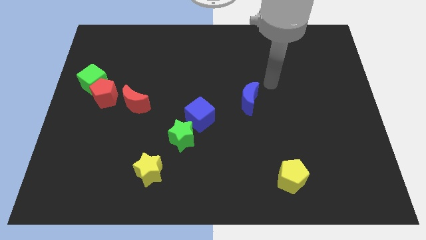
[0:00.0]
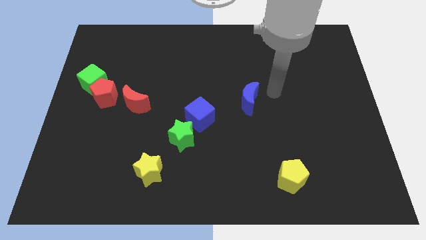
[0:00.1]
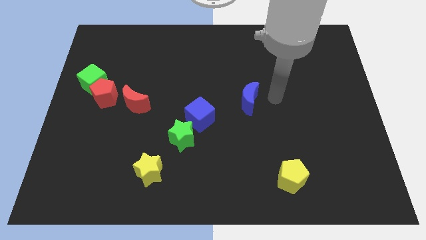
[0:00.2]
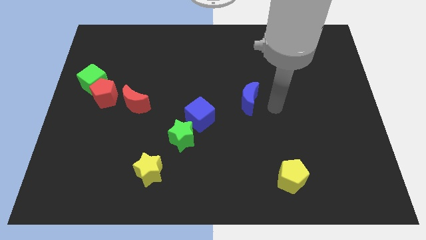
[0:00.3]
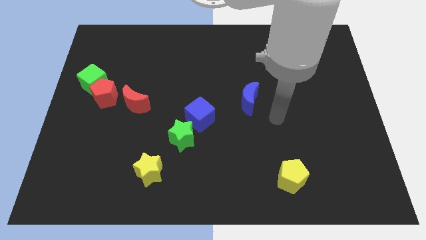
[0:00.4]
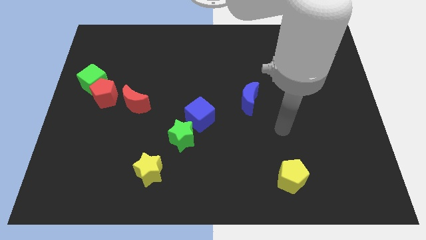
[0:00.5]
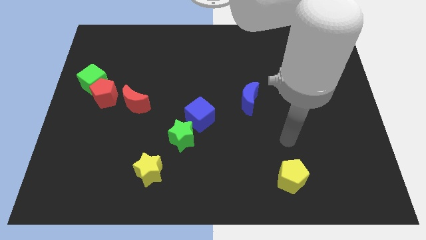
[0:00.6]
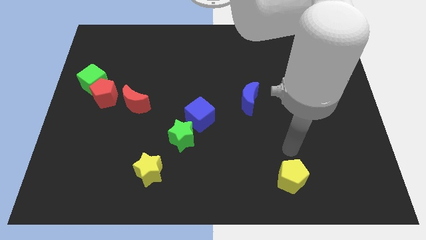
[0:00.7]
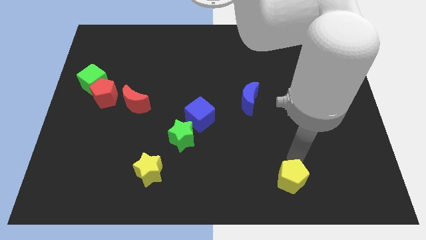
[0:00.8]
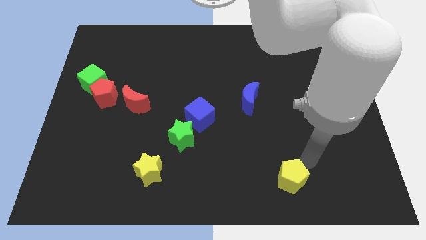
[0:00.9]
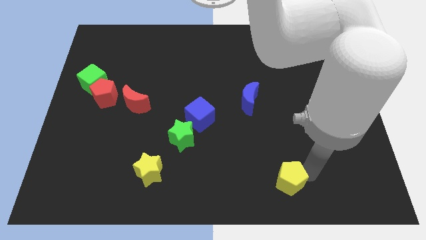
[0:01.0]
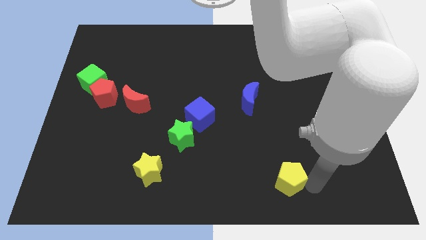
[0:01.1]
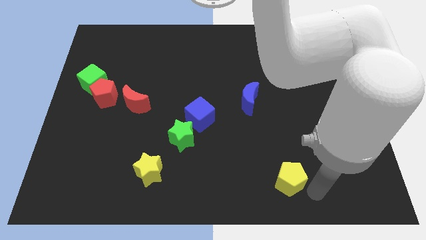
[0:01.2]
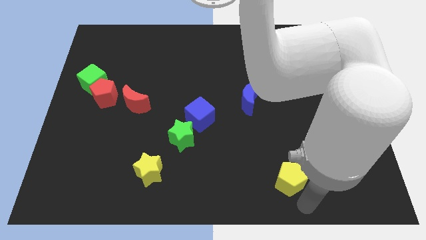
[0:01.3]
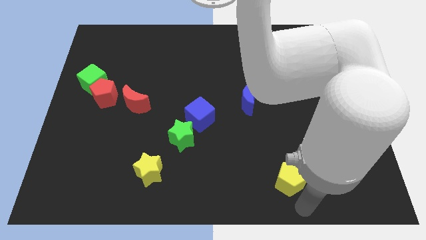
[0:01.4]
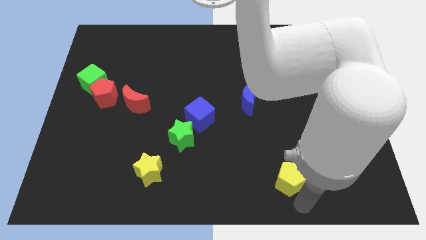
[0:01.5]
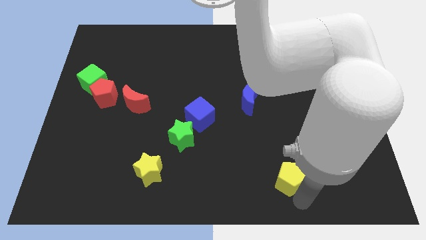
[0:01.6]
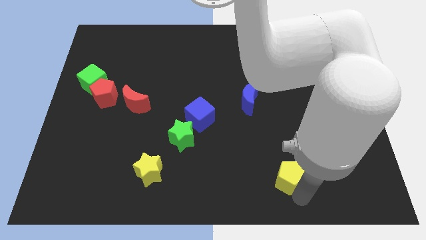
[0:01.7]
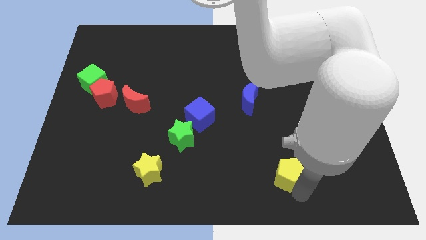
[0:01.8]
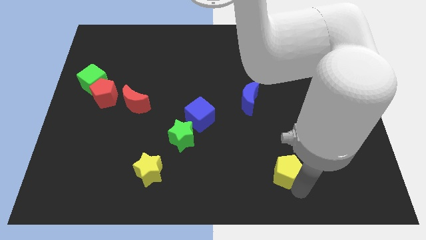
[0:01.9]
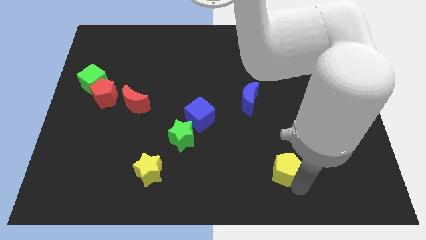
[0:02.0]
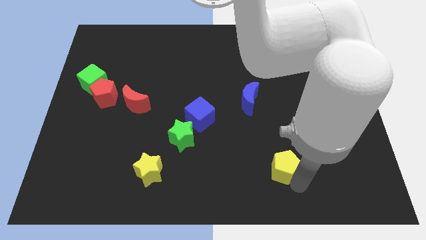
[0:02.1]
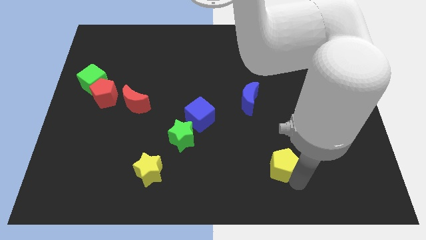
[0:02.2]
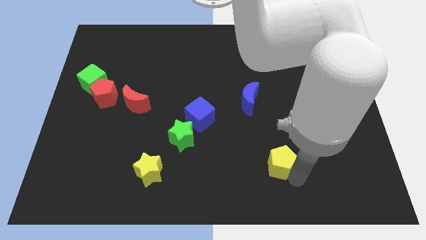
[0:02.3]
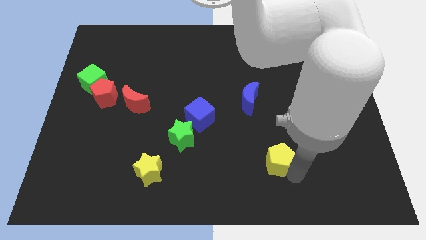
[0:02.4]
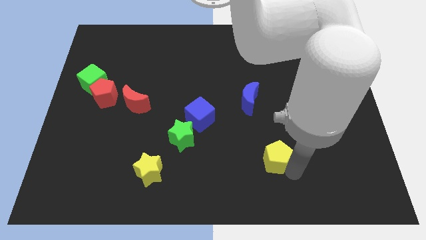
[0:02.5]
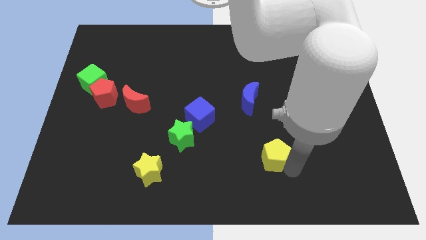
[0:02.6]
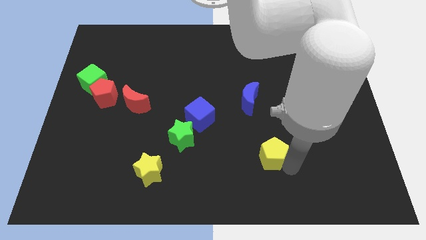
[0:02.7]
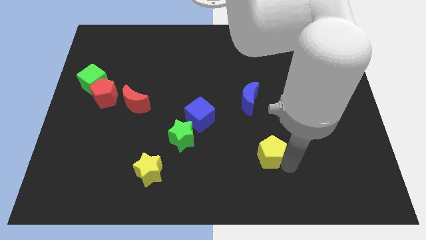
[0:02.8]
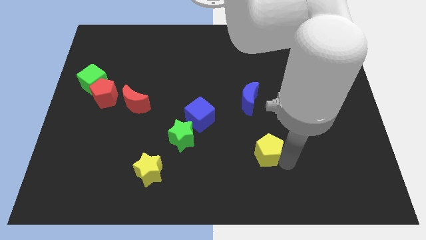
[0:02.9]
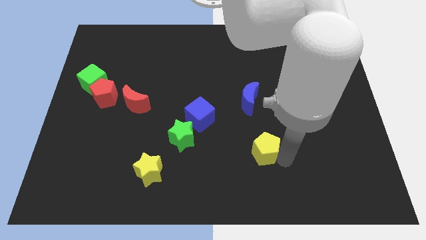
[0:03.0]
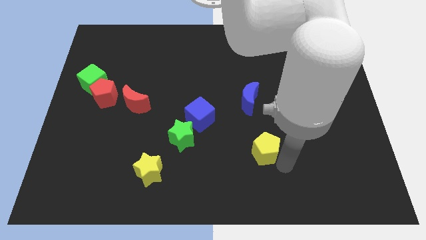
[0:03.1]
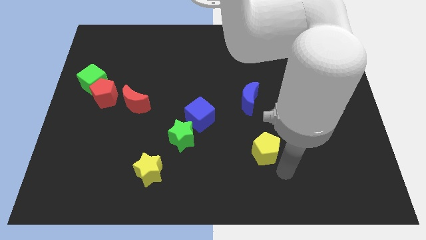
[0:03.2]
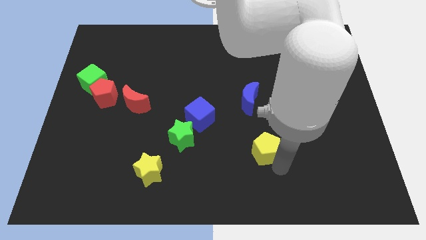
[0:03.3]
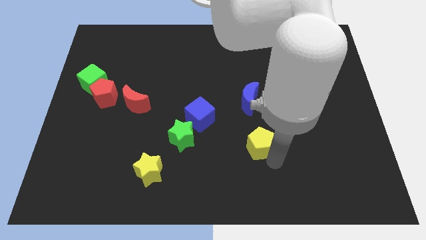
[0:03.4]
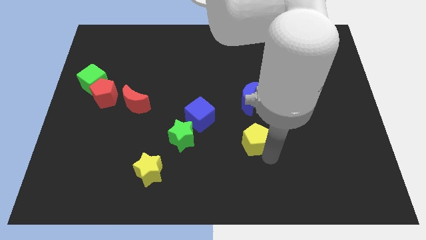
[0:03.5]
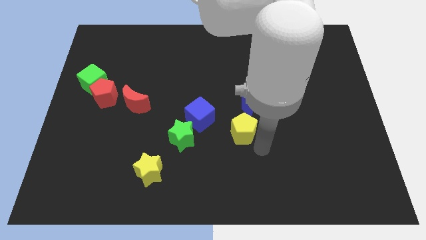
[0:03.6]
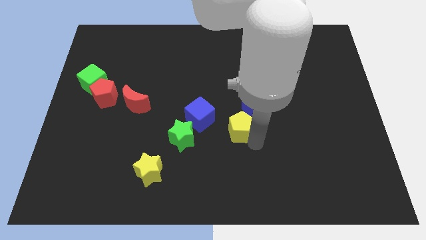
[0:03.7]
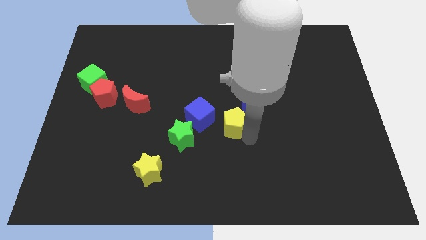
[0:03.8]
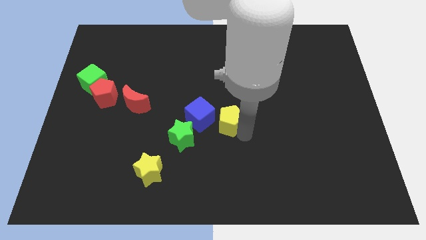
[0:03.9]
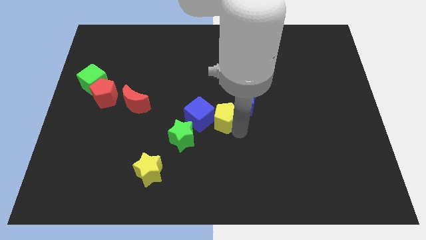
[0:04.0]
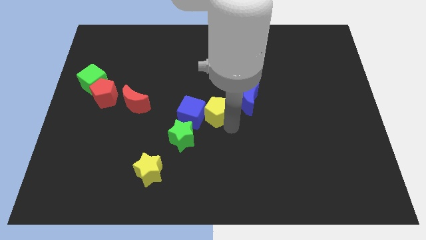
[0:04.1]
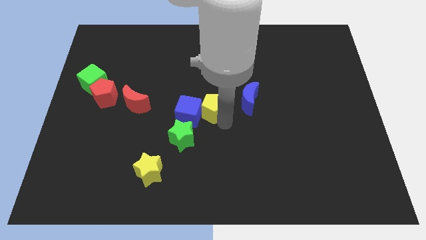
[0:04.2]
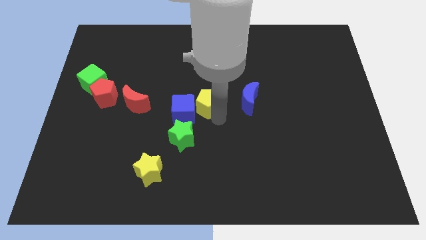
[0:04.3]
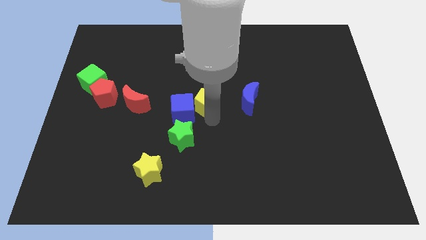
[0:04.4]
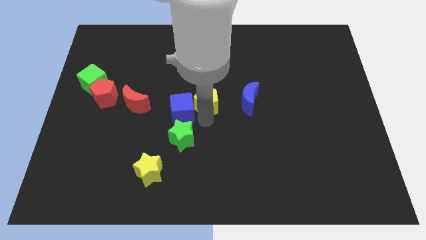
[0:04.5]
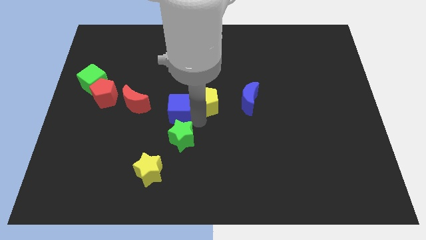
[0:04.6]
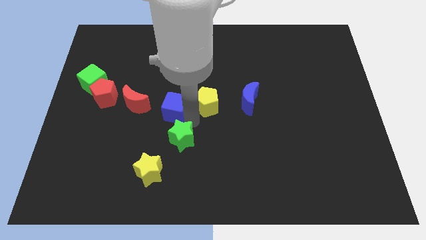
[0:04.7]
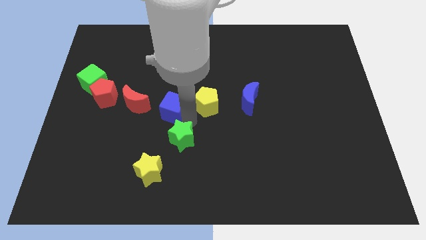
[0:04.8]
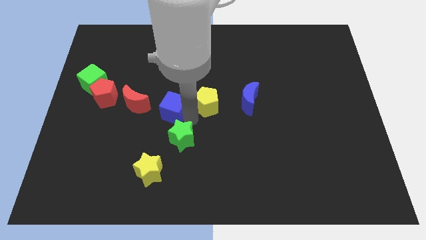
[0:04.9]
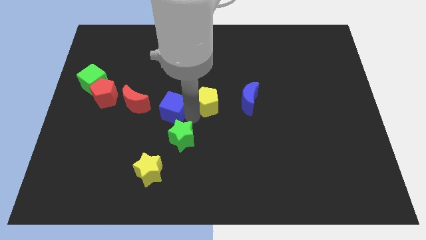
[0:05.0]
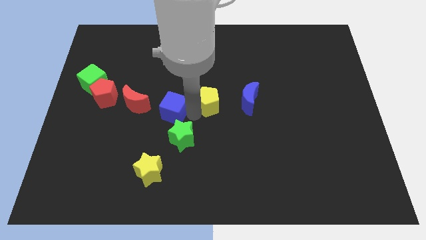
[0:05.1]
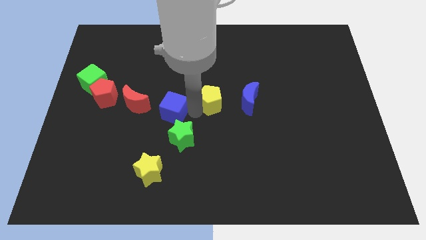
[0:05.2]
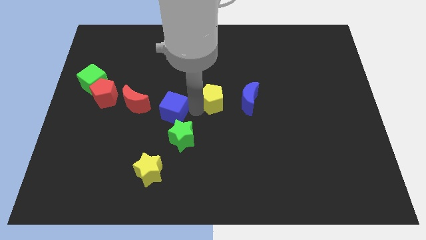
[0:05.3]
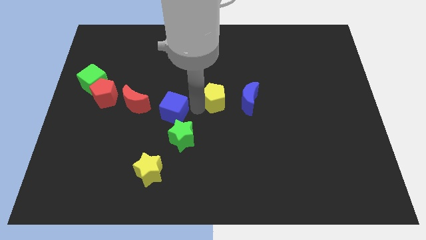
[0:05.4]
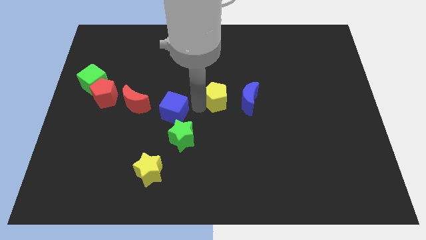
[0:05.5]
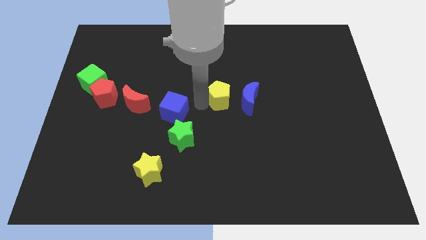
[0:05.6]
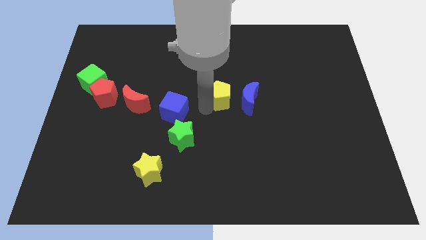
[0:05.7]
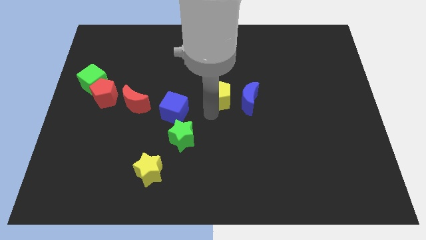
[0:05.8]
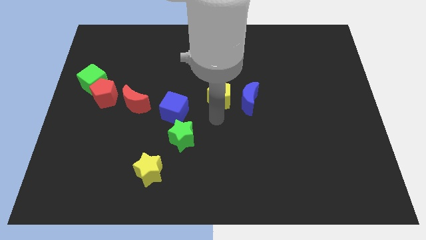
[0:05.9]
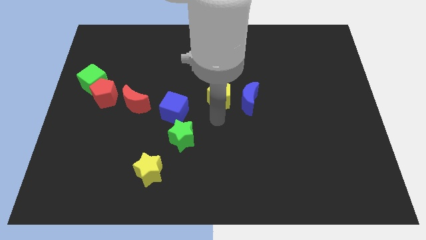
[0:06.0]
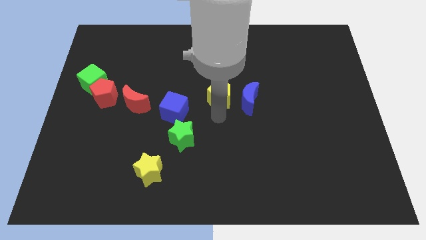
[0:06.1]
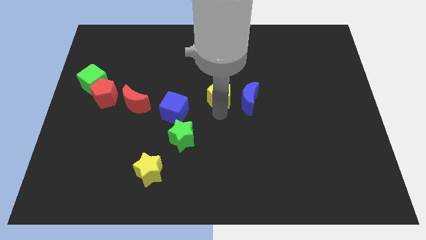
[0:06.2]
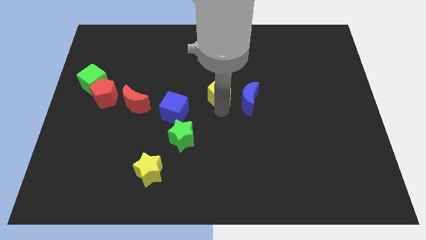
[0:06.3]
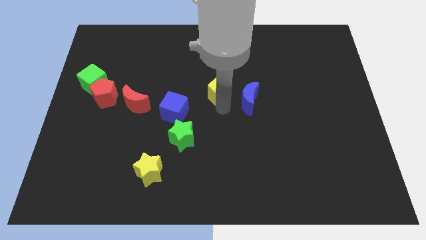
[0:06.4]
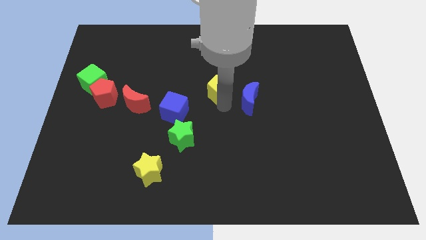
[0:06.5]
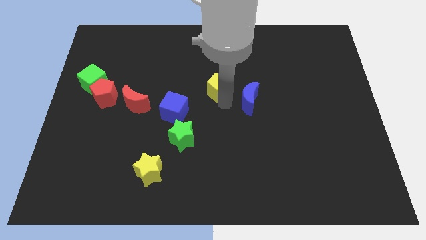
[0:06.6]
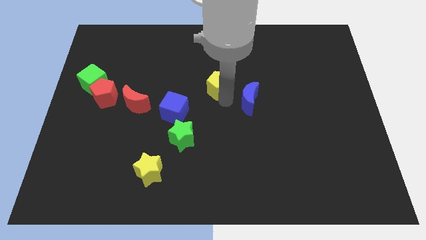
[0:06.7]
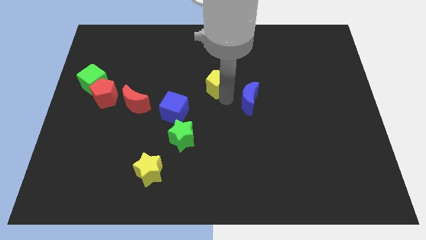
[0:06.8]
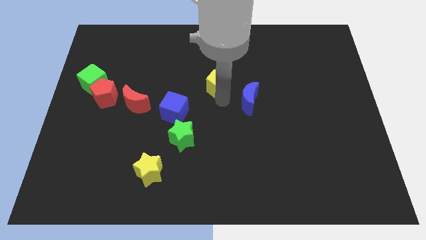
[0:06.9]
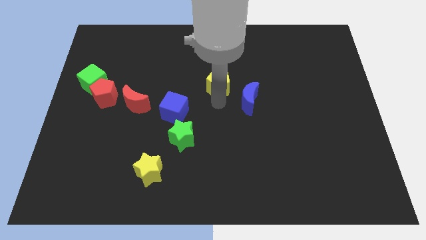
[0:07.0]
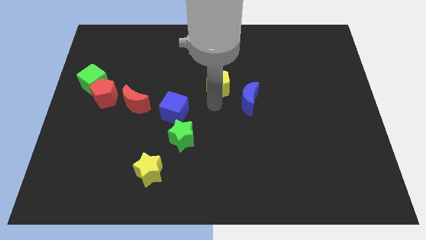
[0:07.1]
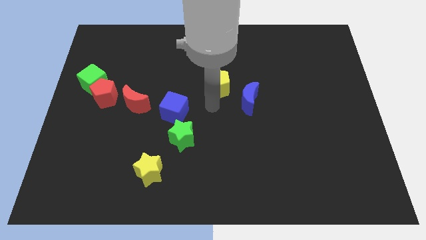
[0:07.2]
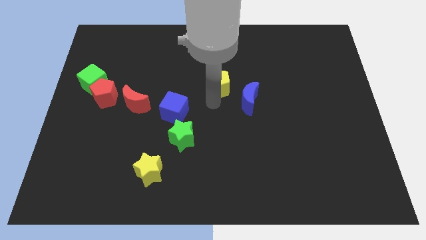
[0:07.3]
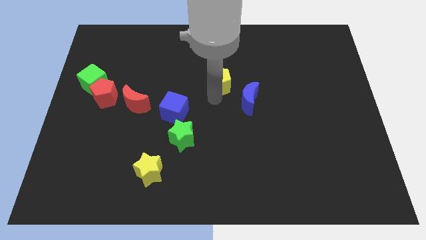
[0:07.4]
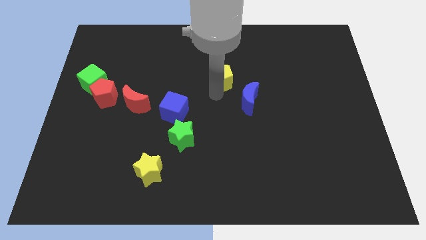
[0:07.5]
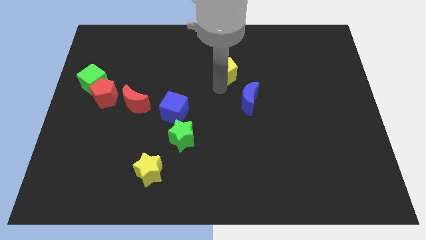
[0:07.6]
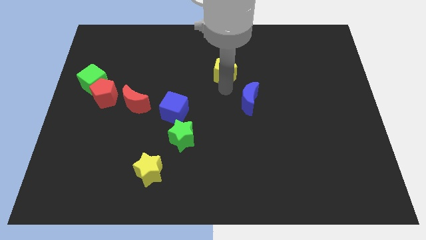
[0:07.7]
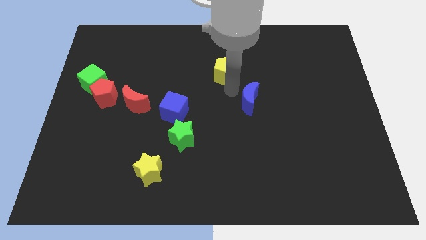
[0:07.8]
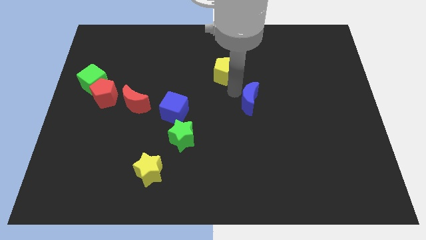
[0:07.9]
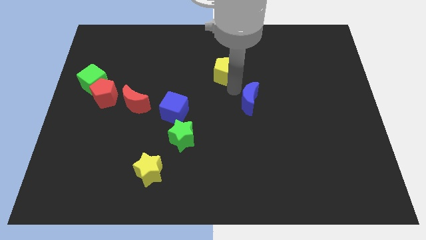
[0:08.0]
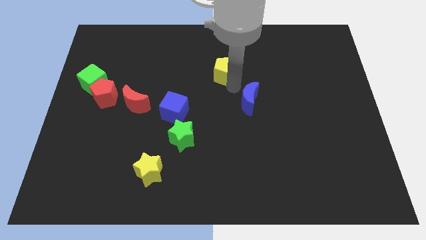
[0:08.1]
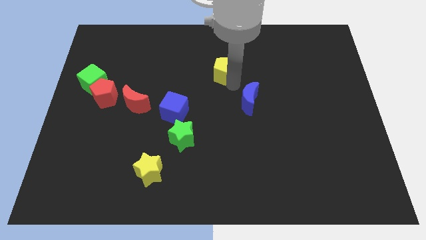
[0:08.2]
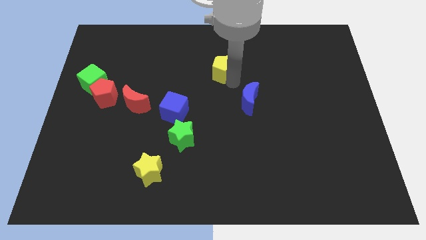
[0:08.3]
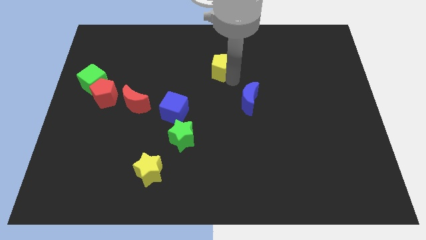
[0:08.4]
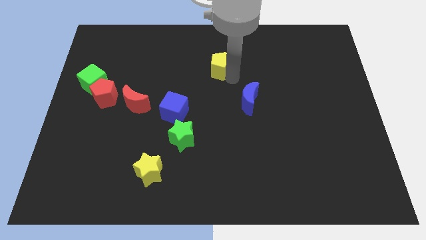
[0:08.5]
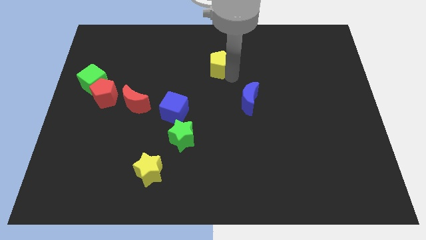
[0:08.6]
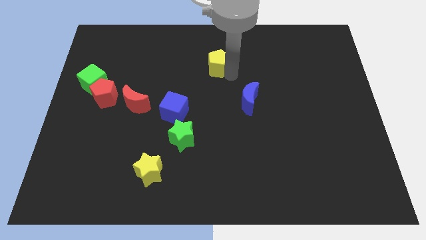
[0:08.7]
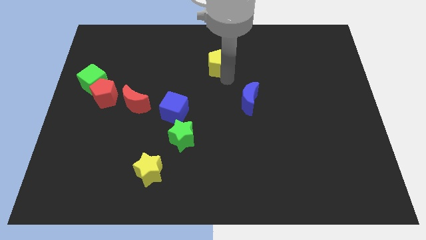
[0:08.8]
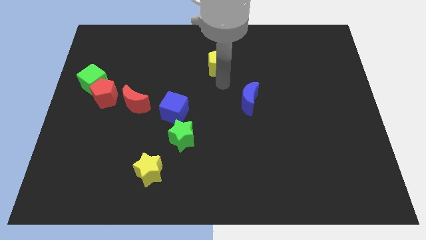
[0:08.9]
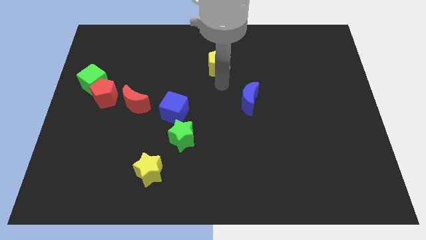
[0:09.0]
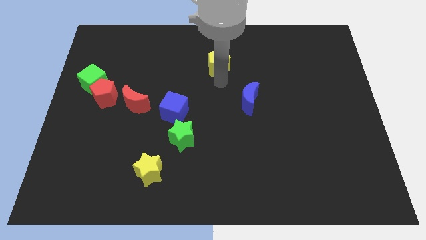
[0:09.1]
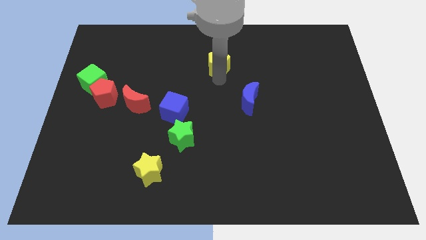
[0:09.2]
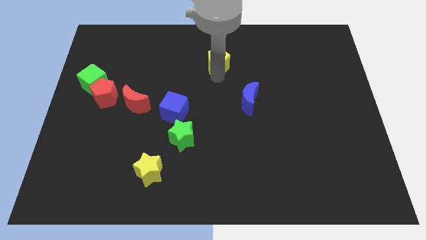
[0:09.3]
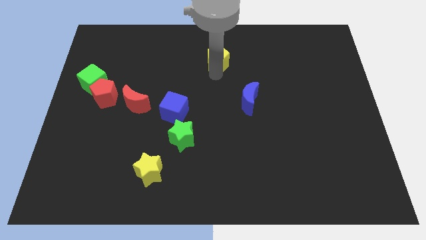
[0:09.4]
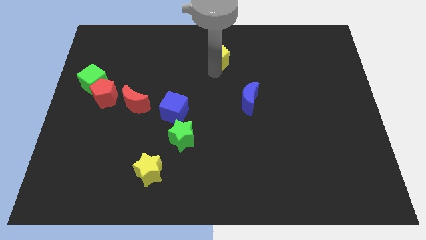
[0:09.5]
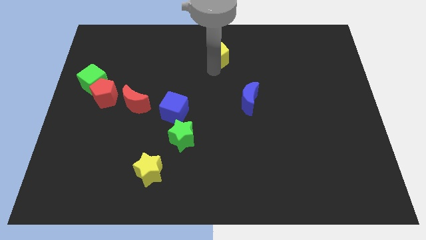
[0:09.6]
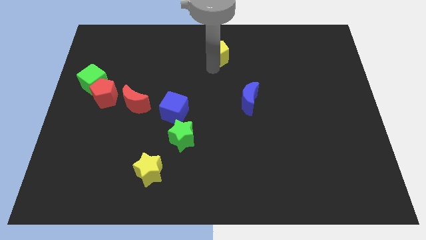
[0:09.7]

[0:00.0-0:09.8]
put the yellow pentagon to the top side
